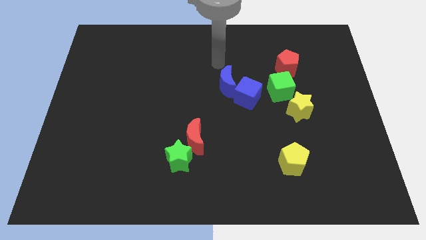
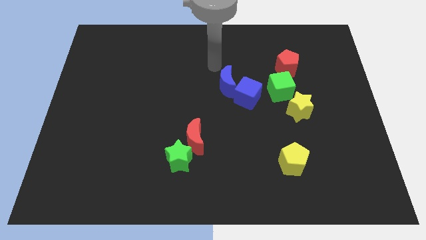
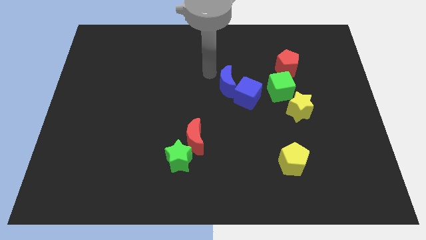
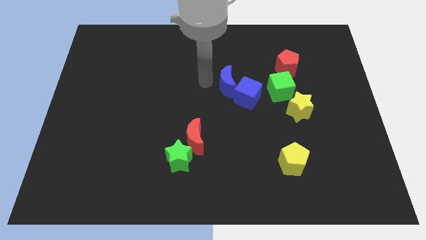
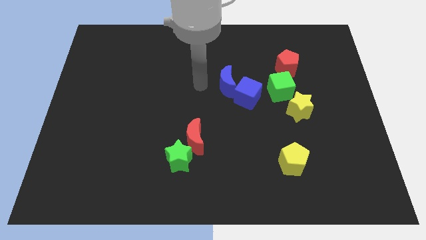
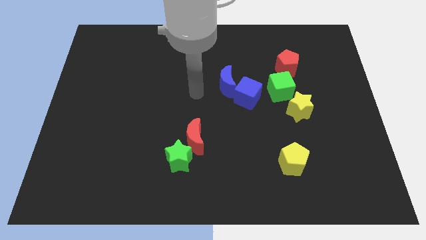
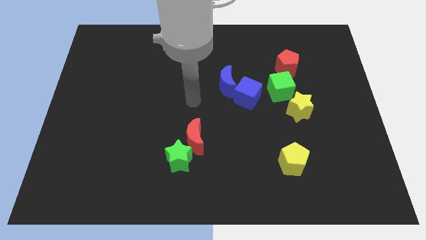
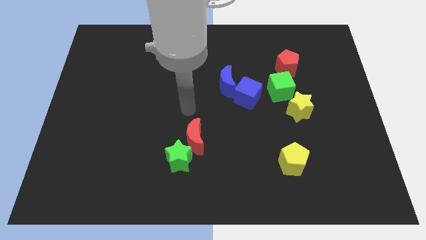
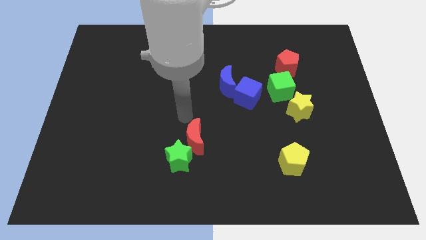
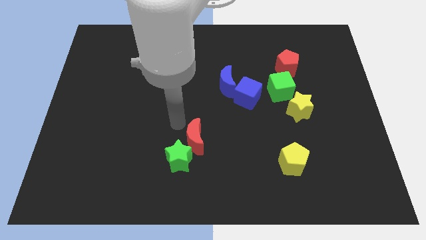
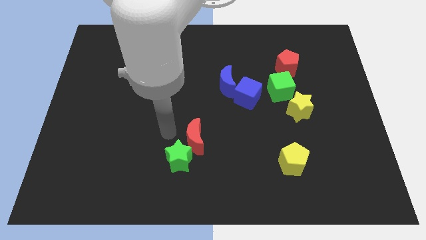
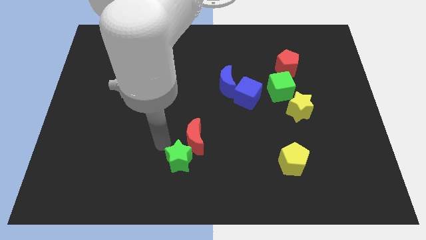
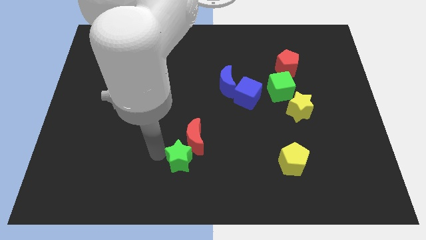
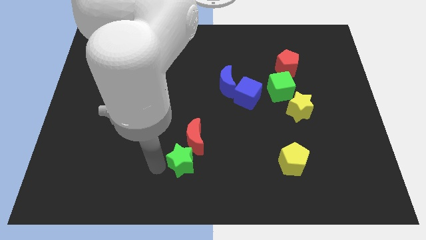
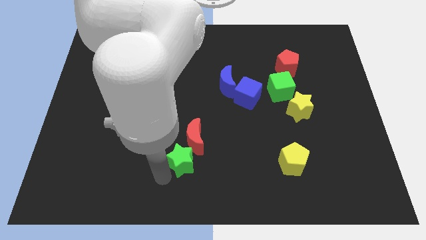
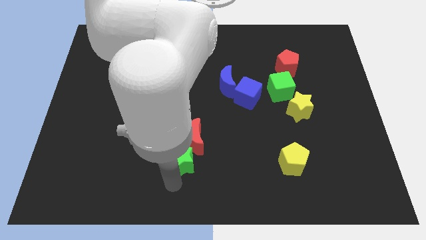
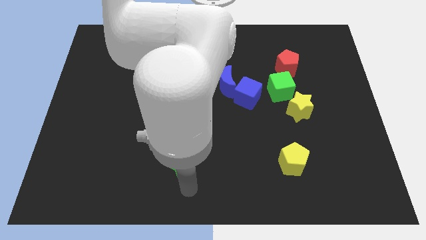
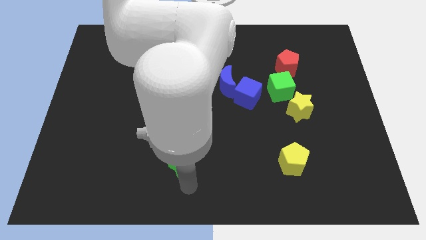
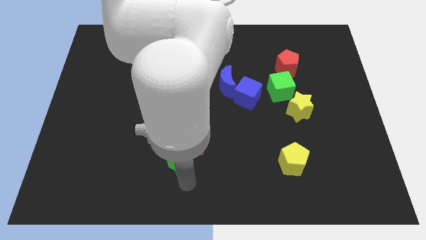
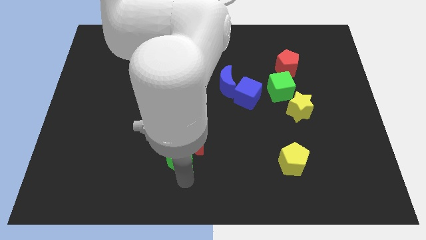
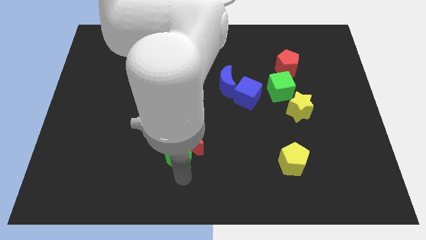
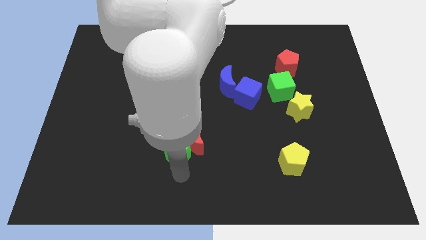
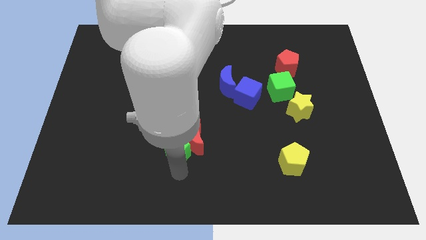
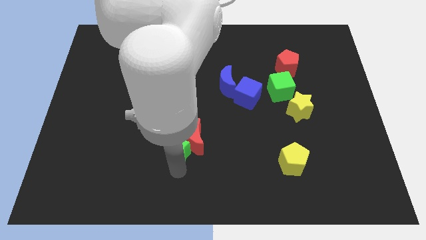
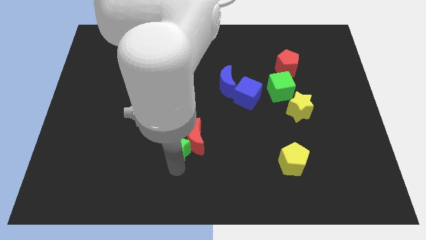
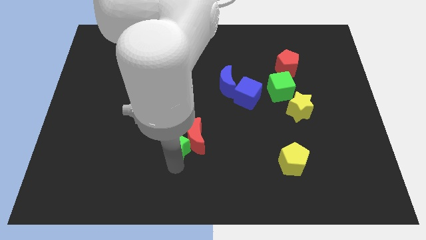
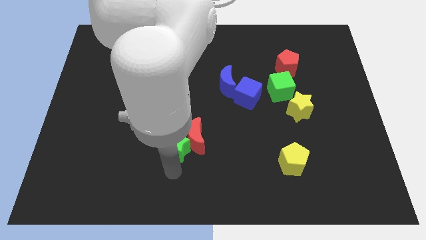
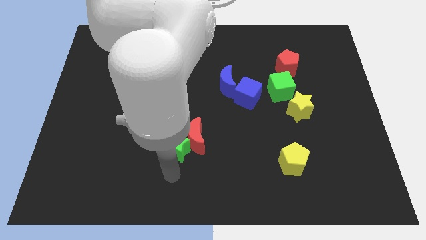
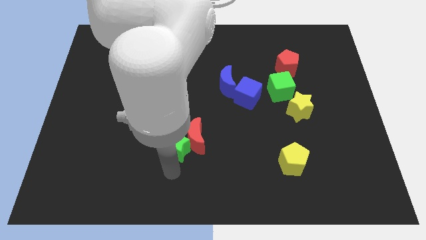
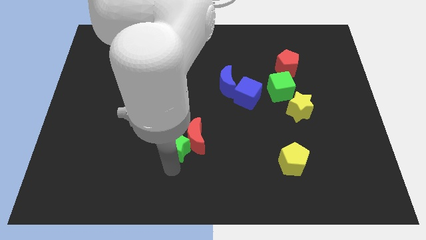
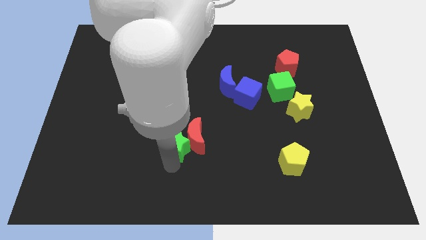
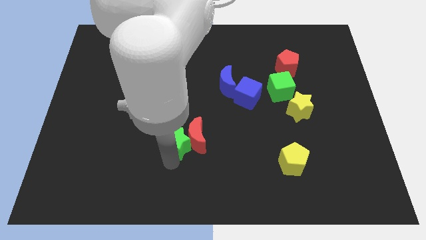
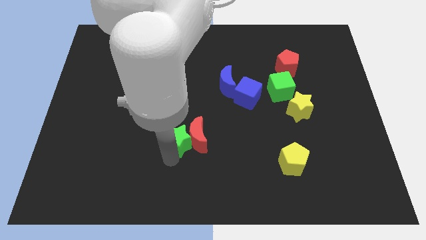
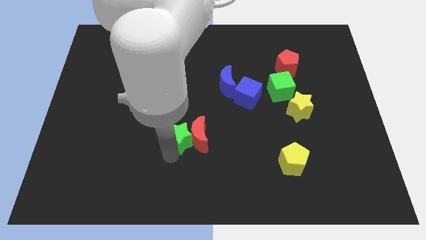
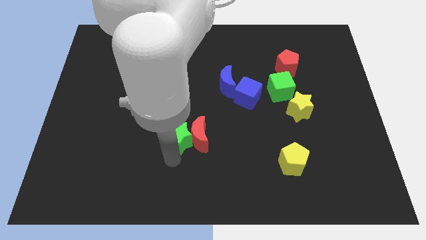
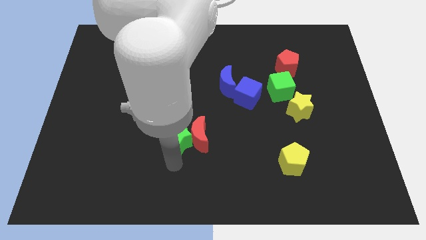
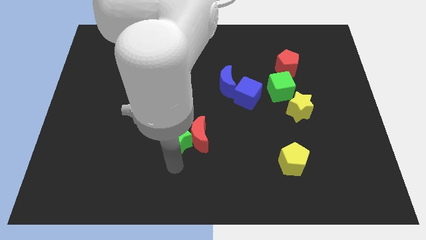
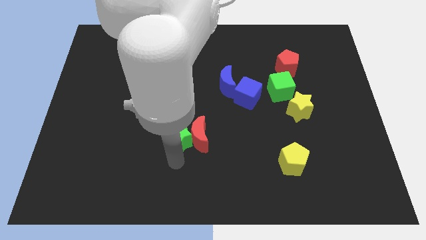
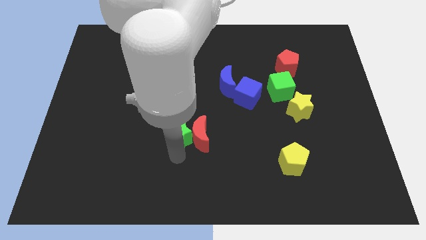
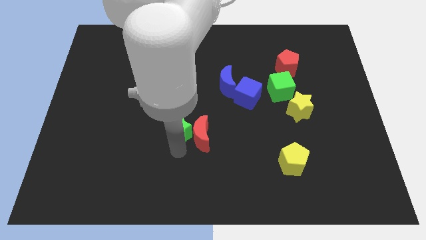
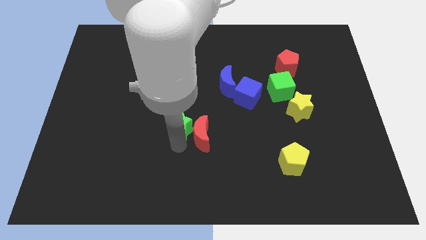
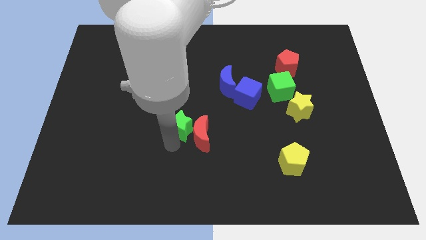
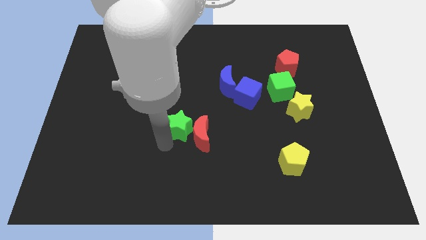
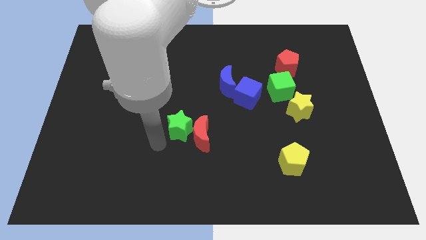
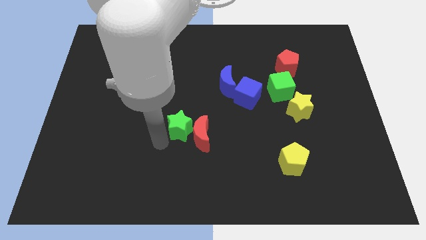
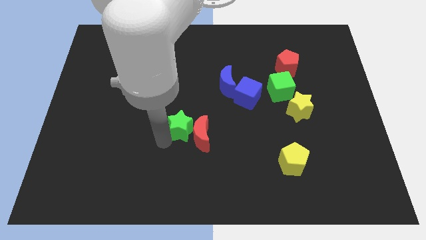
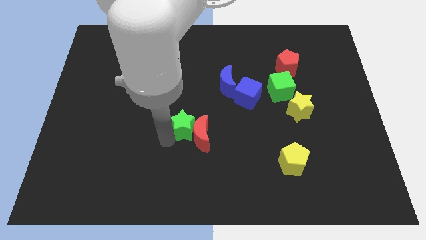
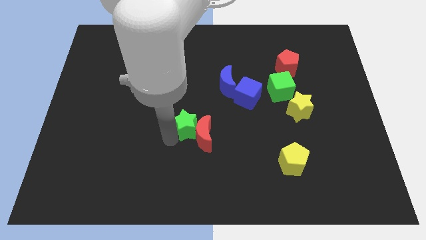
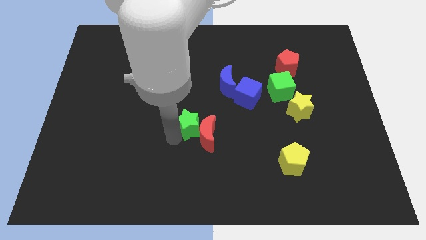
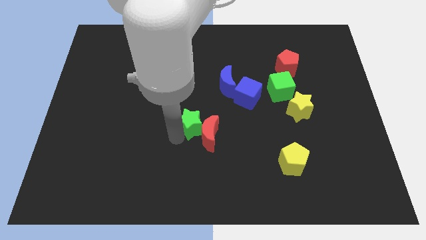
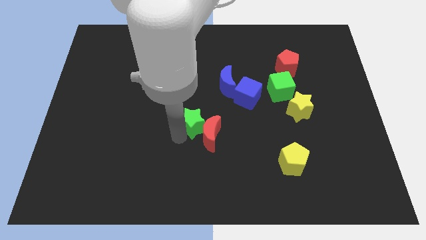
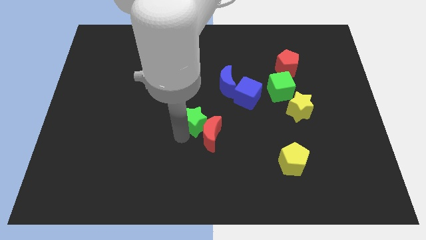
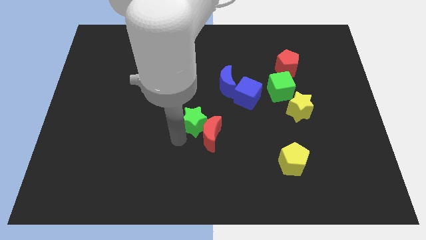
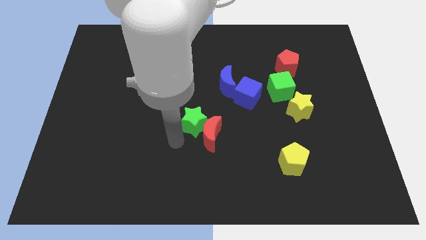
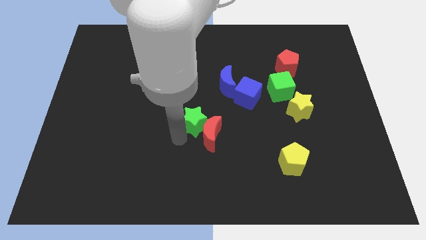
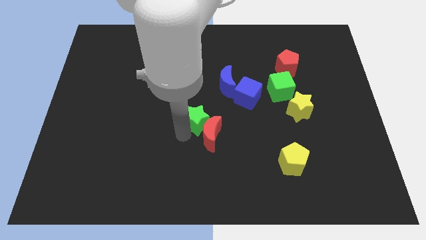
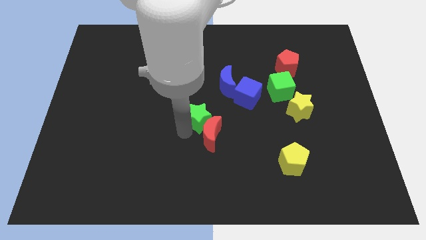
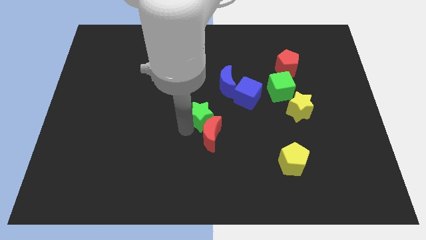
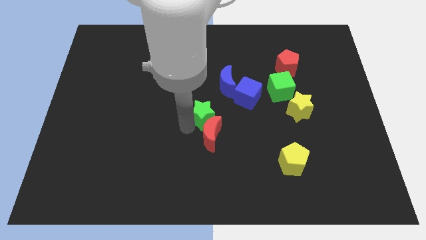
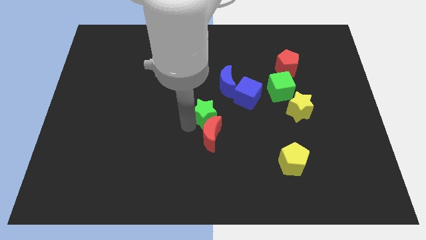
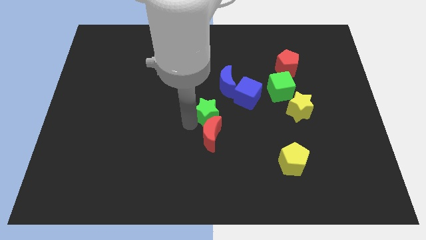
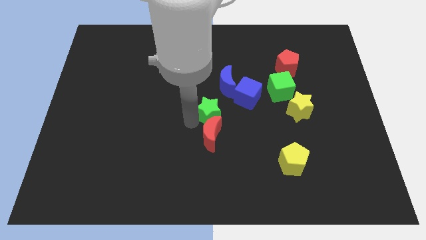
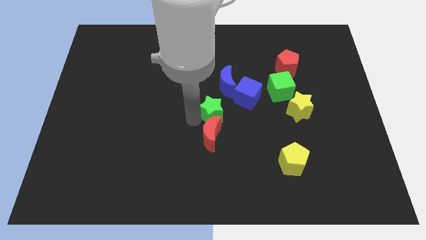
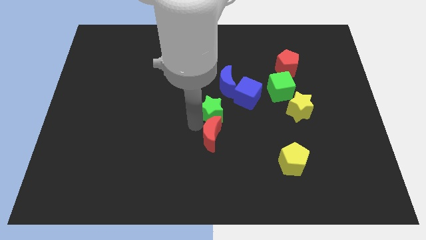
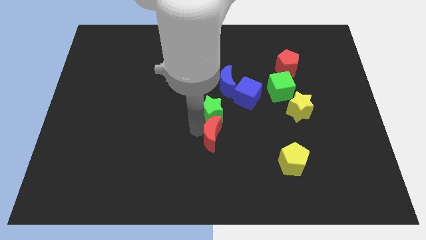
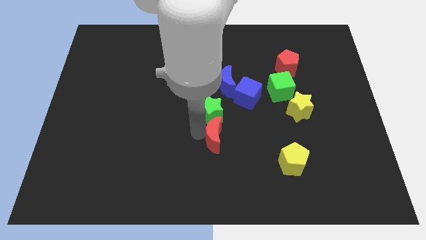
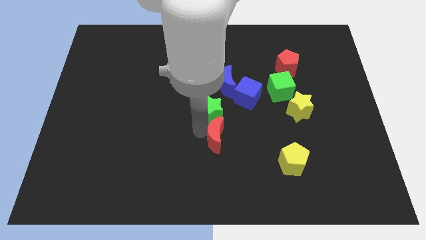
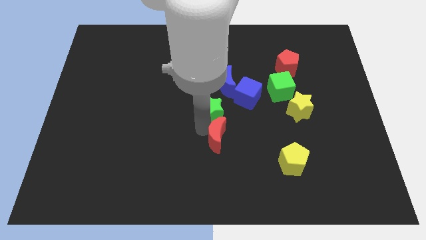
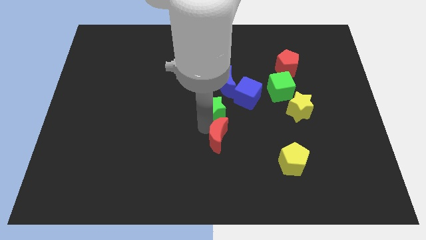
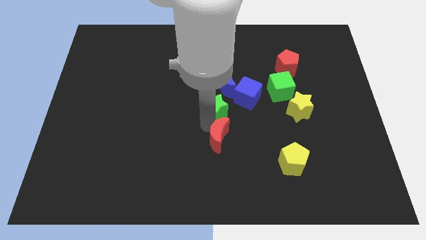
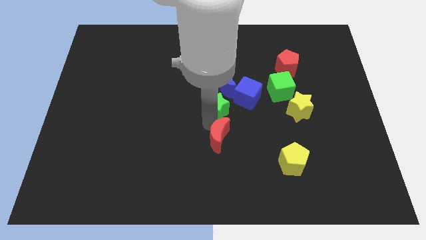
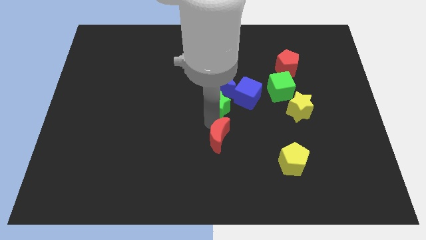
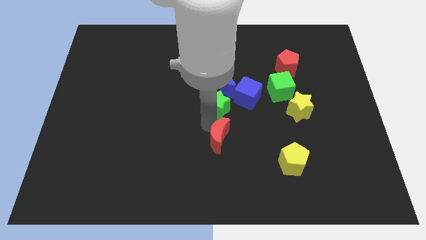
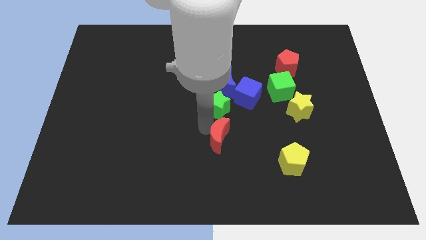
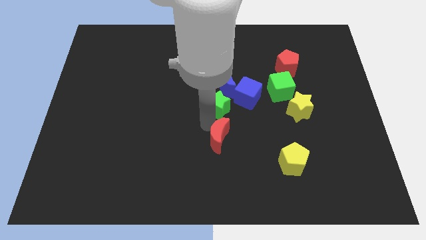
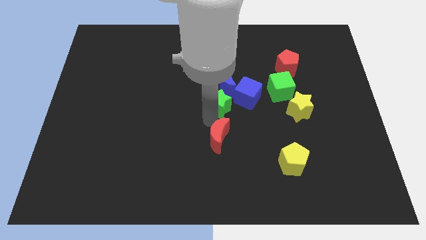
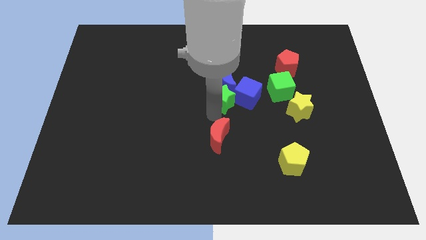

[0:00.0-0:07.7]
push the green star towards the blue moon
